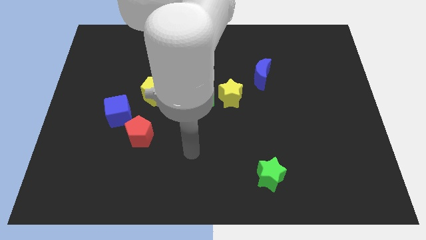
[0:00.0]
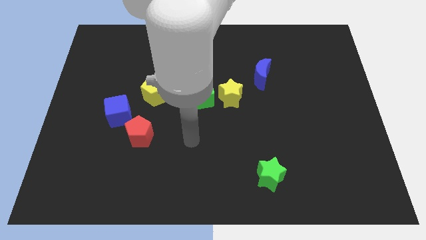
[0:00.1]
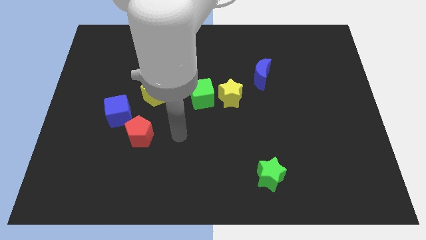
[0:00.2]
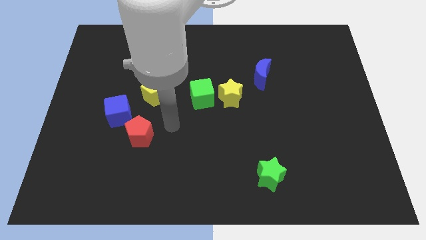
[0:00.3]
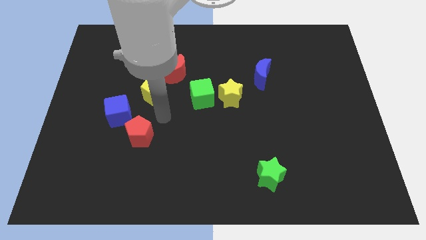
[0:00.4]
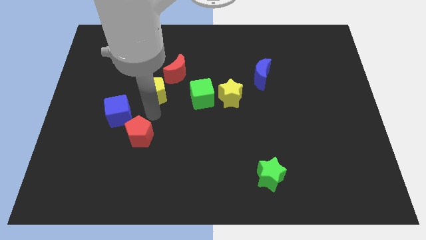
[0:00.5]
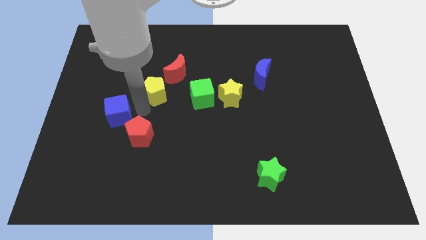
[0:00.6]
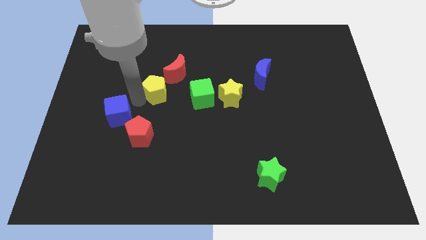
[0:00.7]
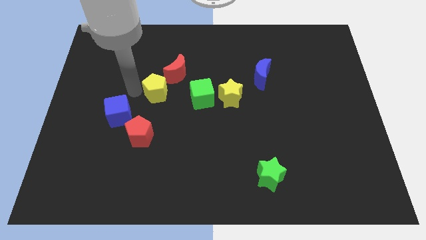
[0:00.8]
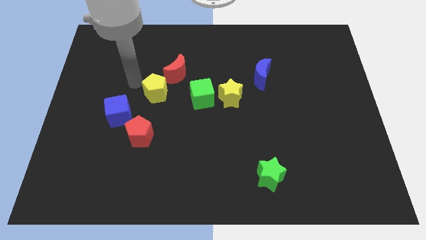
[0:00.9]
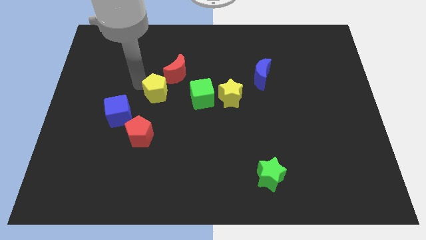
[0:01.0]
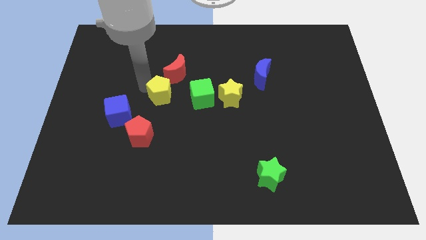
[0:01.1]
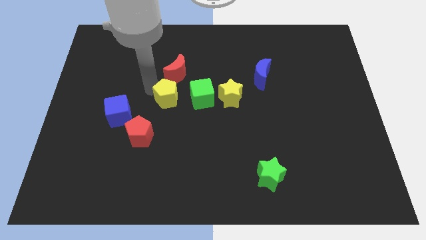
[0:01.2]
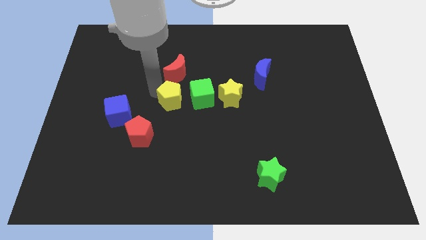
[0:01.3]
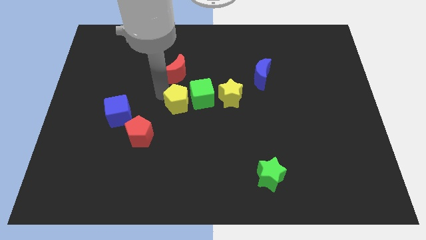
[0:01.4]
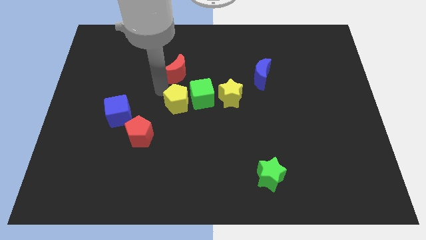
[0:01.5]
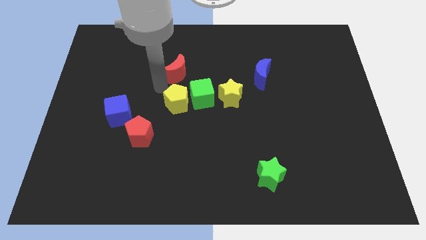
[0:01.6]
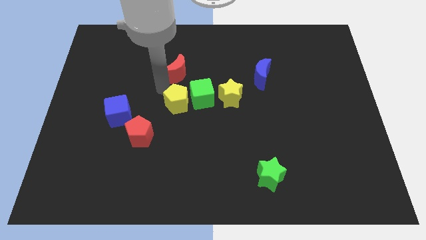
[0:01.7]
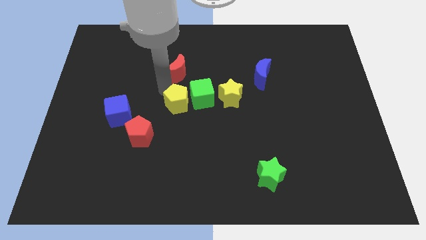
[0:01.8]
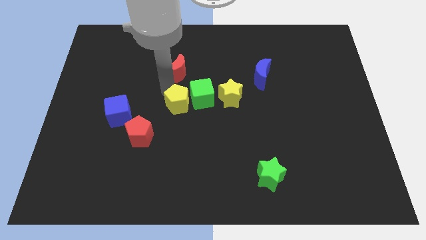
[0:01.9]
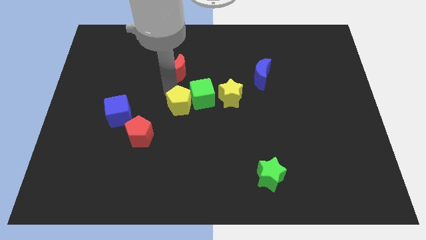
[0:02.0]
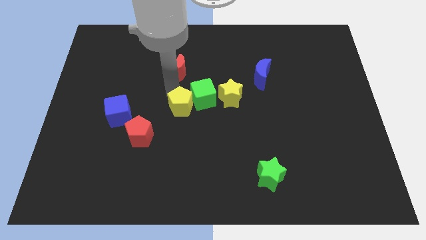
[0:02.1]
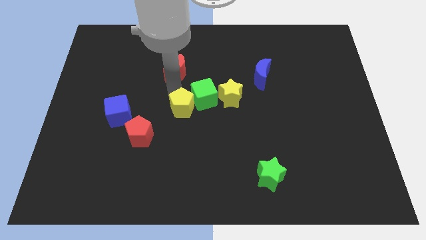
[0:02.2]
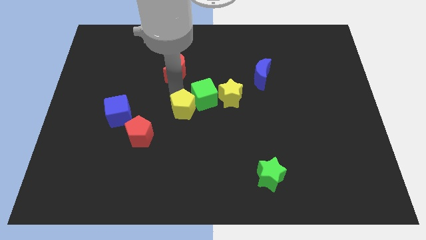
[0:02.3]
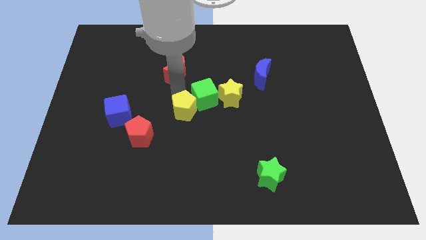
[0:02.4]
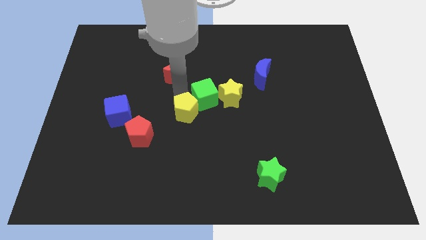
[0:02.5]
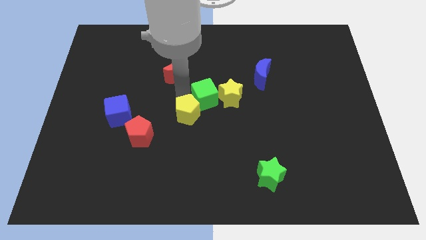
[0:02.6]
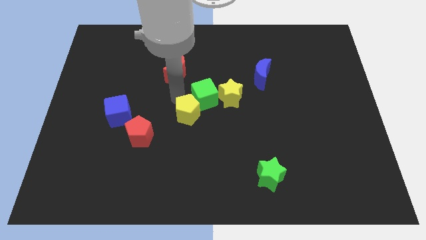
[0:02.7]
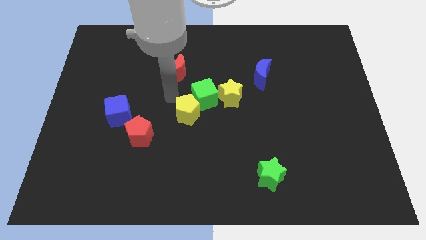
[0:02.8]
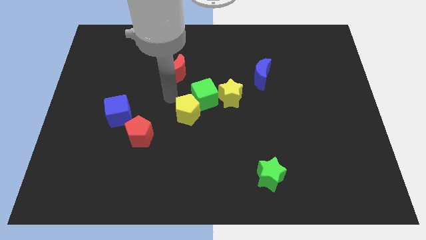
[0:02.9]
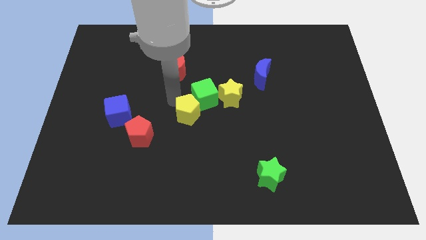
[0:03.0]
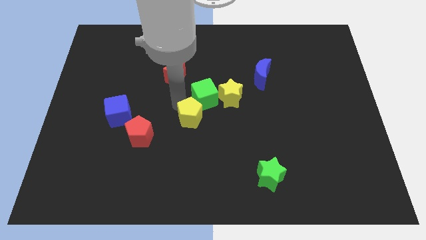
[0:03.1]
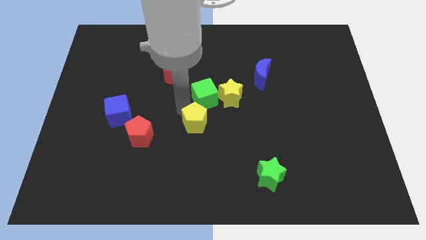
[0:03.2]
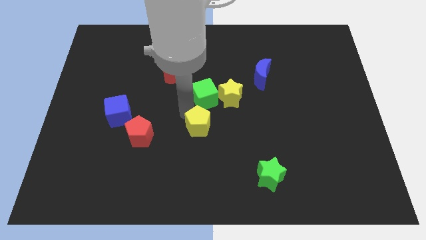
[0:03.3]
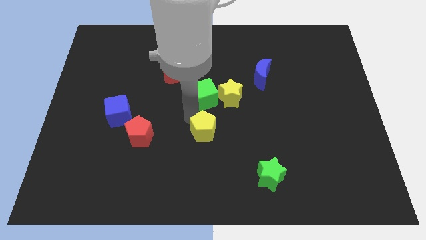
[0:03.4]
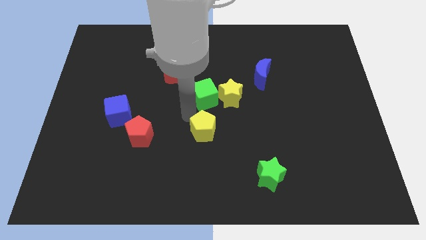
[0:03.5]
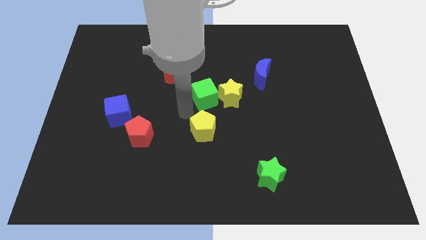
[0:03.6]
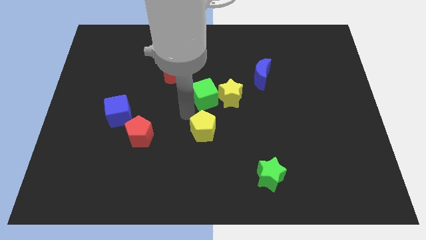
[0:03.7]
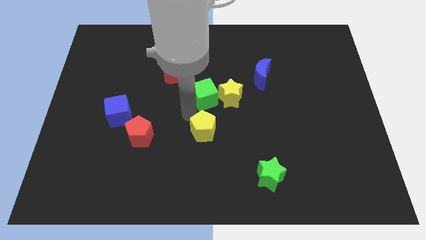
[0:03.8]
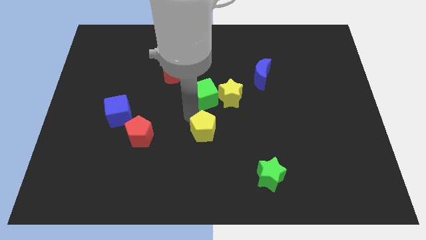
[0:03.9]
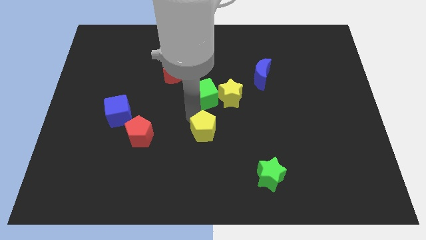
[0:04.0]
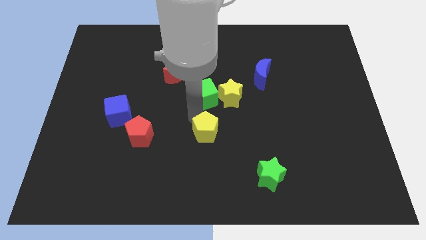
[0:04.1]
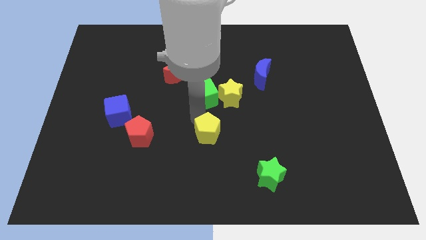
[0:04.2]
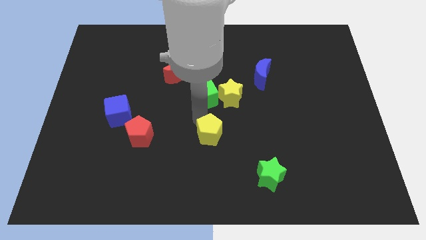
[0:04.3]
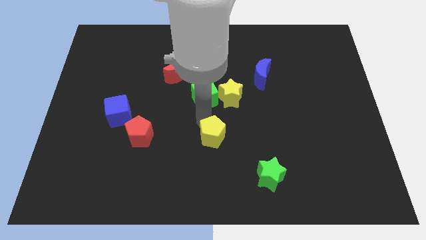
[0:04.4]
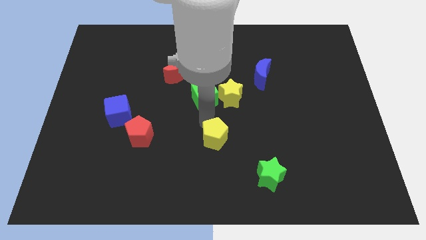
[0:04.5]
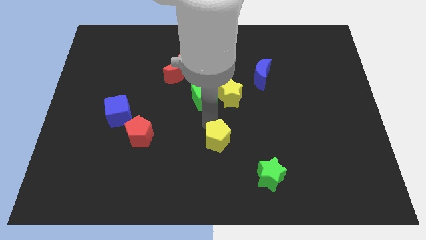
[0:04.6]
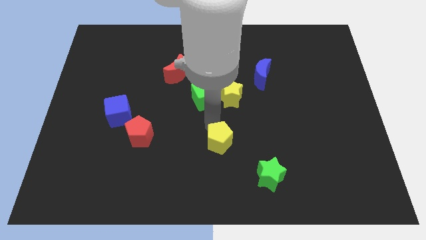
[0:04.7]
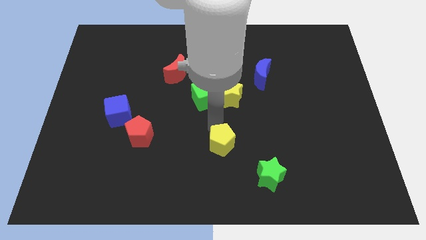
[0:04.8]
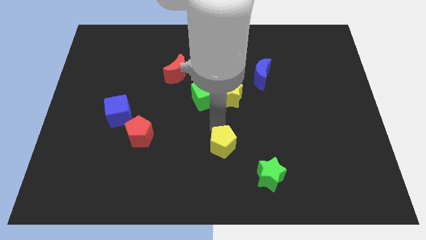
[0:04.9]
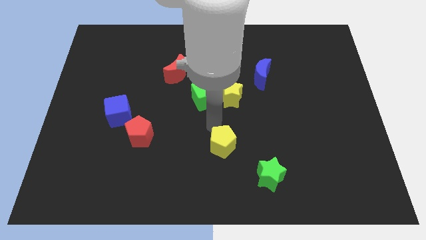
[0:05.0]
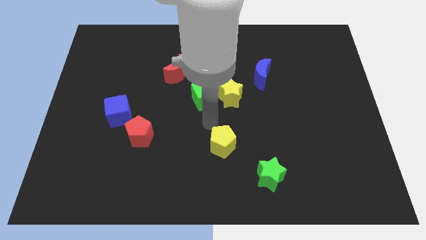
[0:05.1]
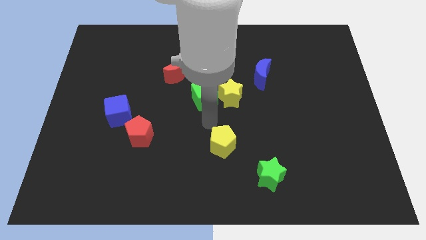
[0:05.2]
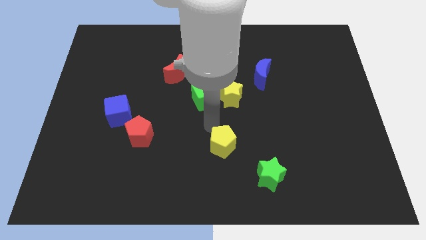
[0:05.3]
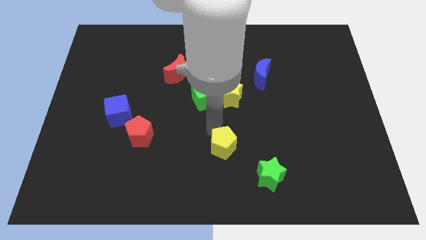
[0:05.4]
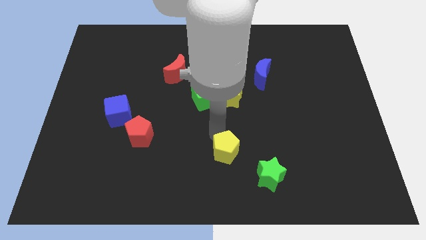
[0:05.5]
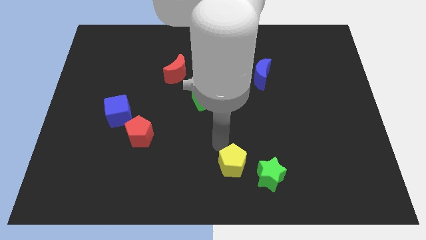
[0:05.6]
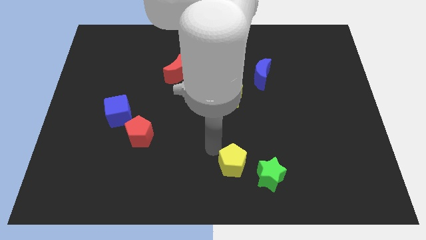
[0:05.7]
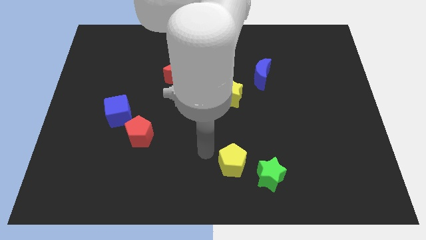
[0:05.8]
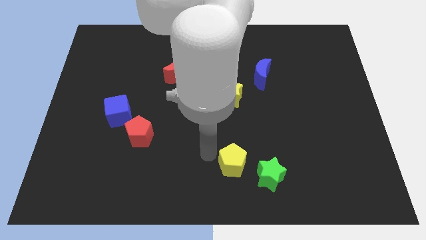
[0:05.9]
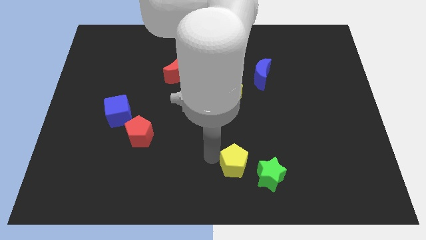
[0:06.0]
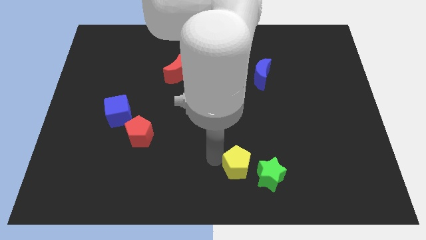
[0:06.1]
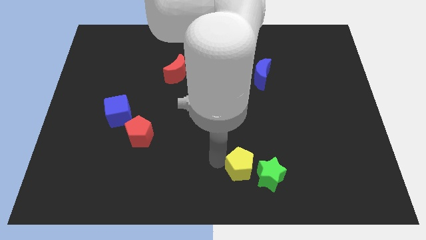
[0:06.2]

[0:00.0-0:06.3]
put the yellow pentagon to the green star

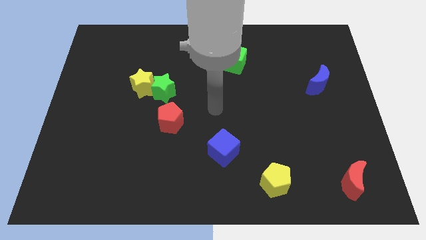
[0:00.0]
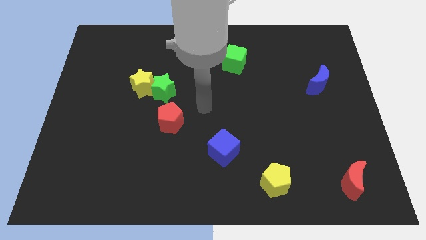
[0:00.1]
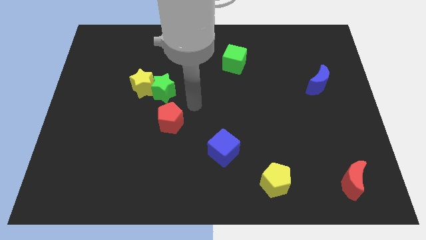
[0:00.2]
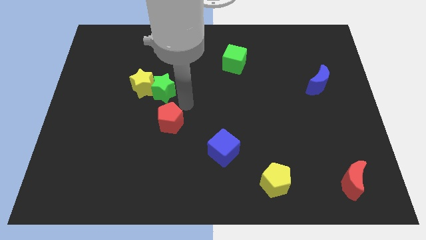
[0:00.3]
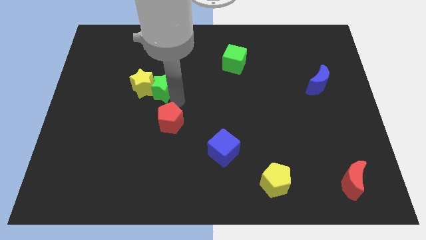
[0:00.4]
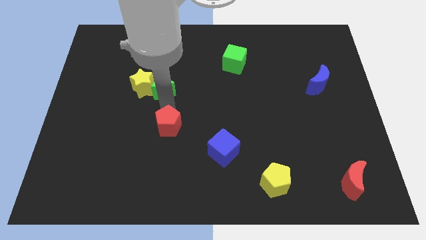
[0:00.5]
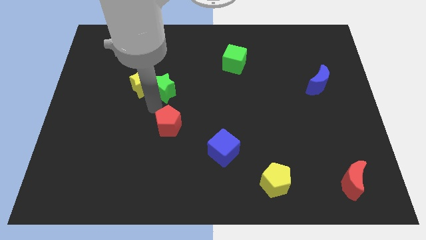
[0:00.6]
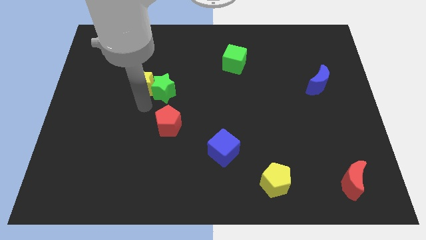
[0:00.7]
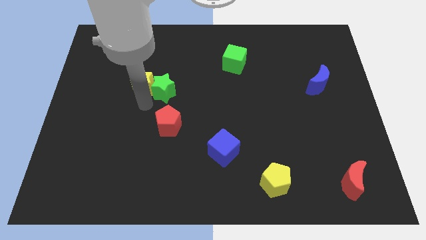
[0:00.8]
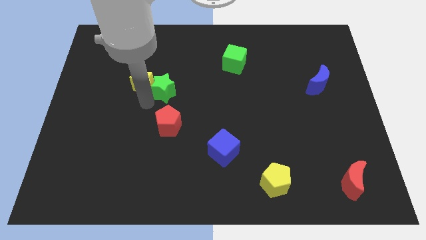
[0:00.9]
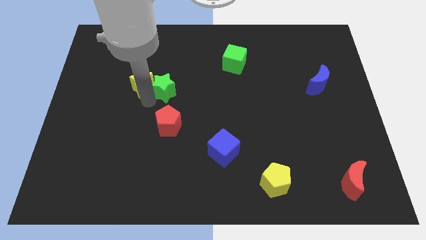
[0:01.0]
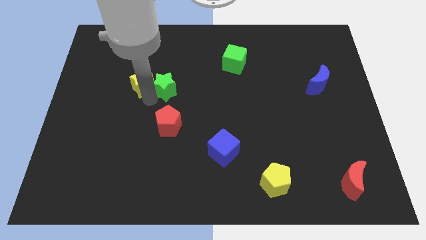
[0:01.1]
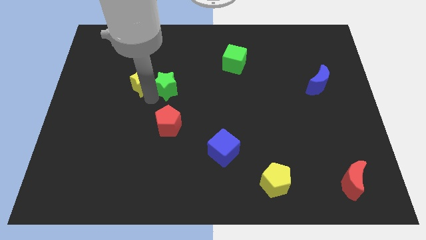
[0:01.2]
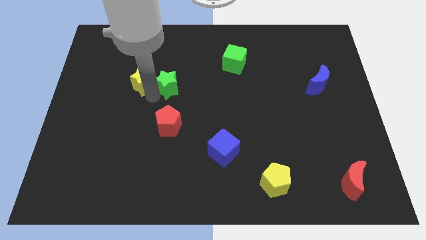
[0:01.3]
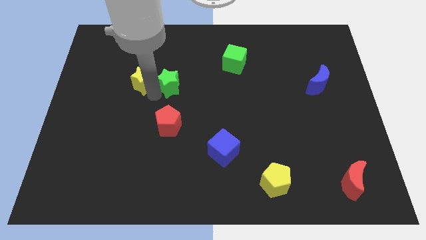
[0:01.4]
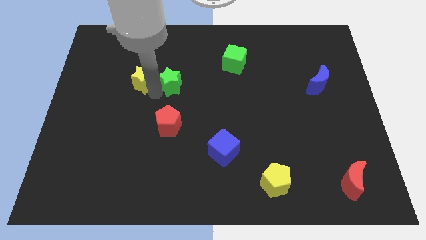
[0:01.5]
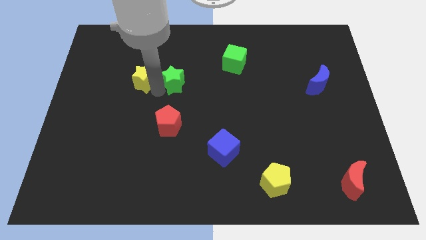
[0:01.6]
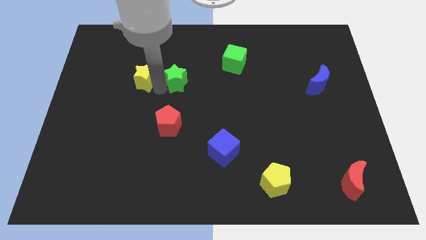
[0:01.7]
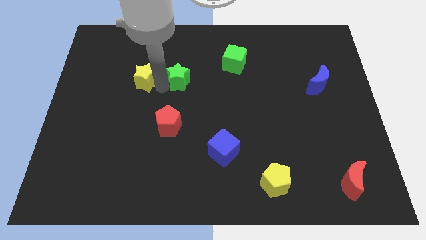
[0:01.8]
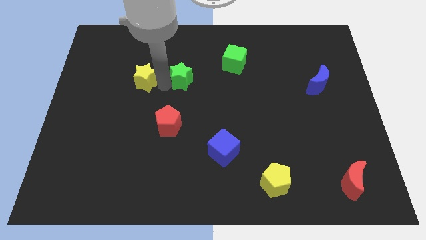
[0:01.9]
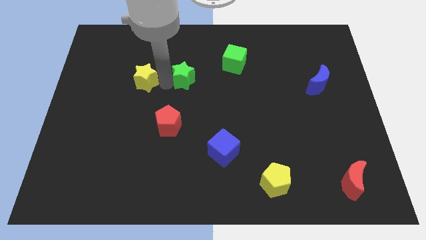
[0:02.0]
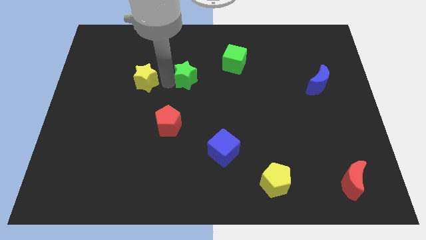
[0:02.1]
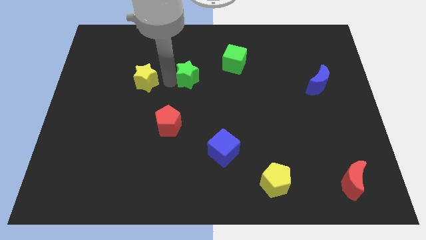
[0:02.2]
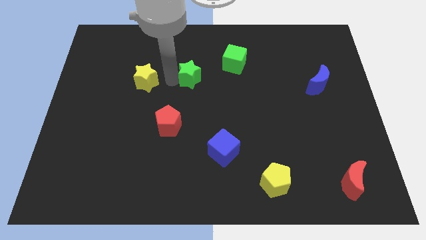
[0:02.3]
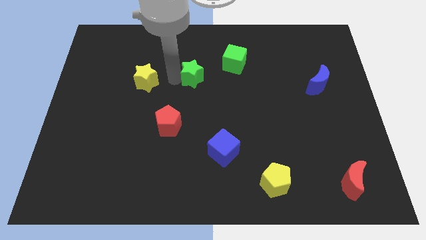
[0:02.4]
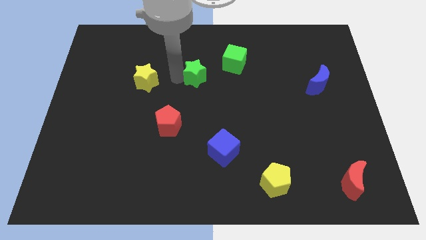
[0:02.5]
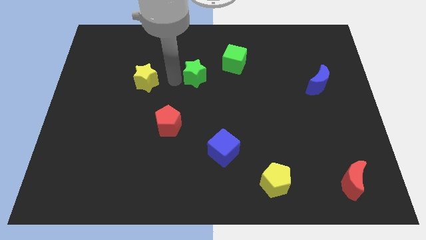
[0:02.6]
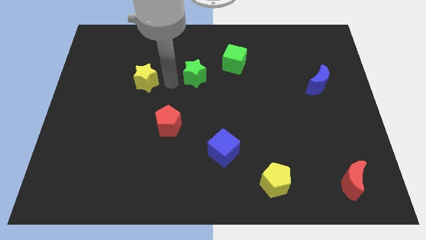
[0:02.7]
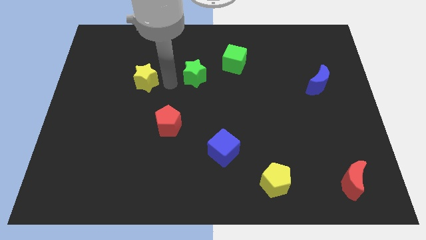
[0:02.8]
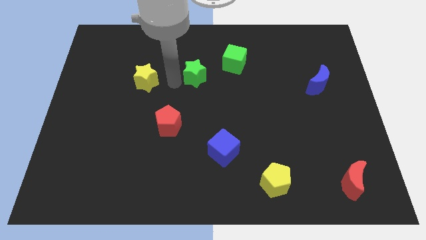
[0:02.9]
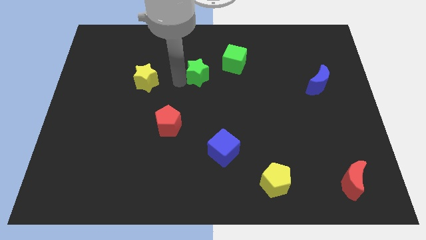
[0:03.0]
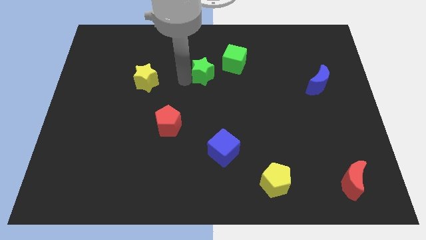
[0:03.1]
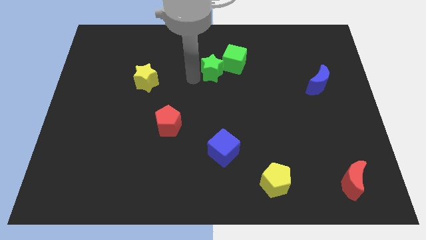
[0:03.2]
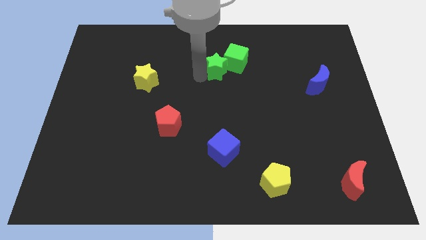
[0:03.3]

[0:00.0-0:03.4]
push the green star close to the green cube
